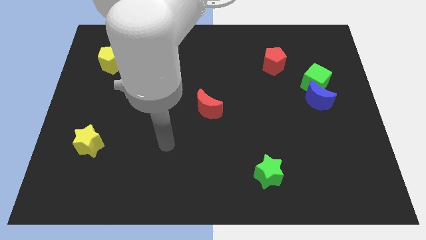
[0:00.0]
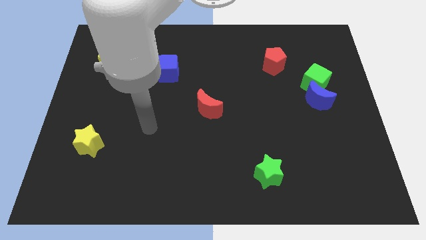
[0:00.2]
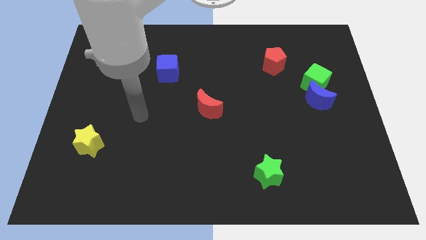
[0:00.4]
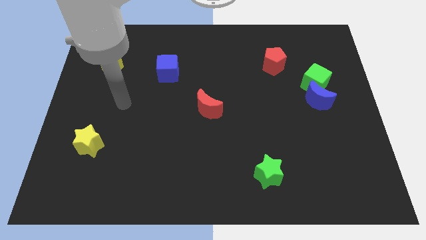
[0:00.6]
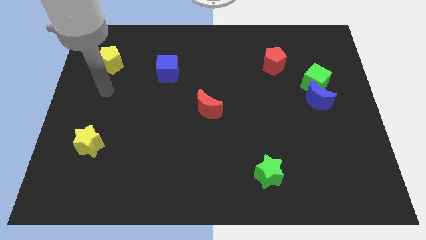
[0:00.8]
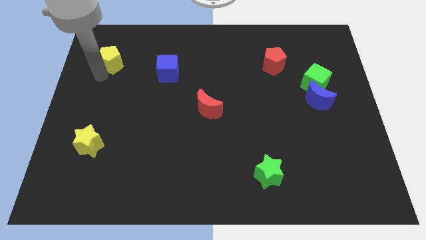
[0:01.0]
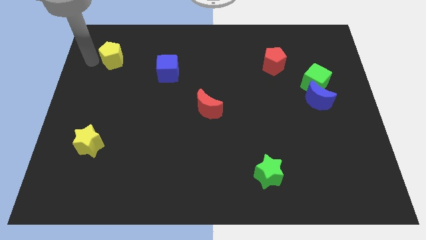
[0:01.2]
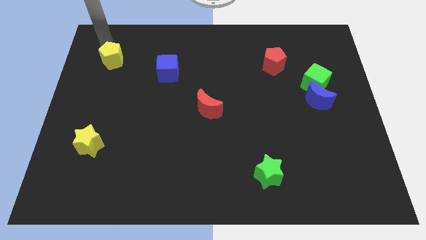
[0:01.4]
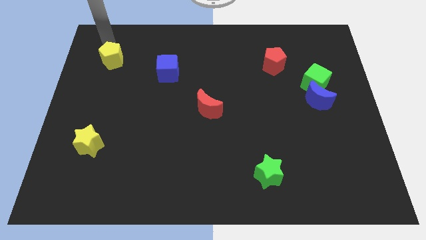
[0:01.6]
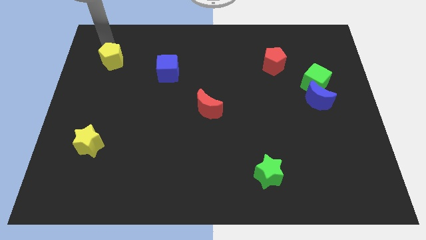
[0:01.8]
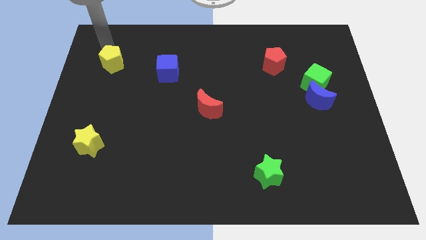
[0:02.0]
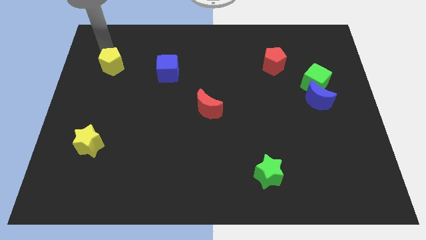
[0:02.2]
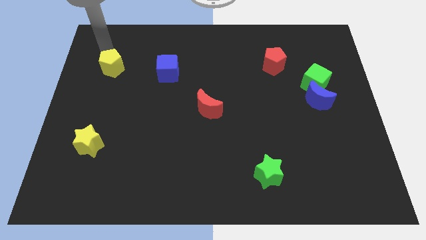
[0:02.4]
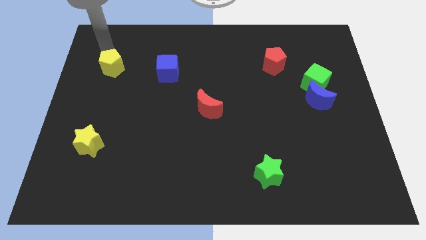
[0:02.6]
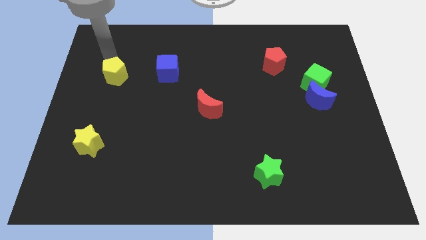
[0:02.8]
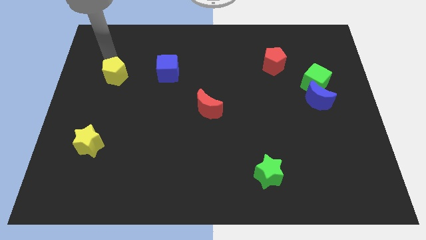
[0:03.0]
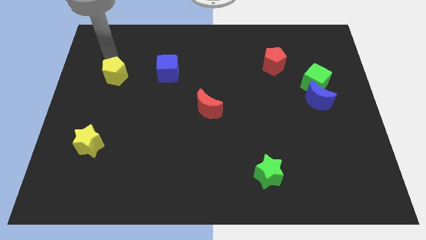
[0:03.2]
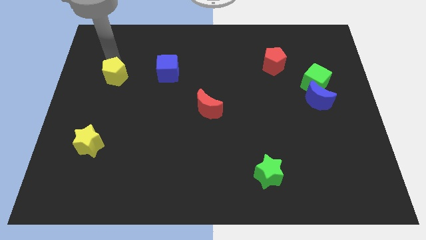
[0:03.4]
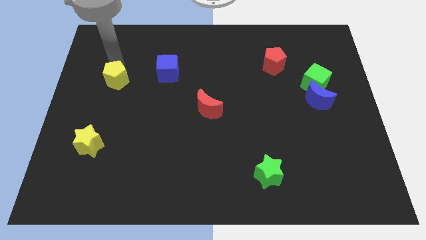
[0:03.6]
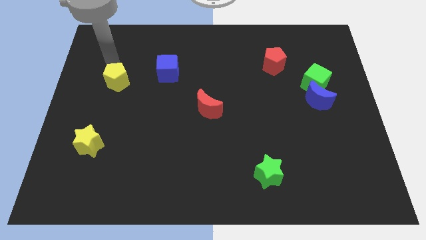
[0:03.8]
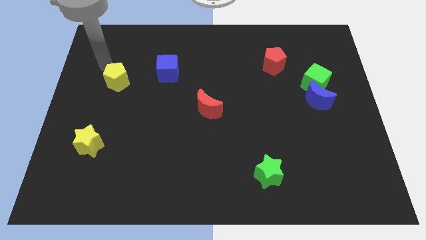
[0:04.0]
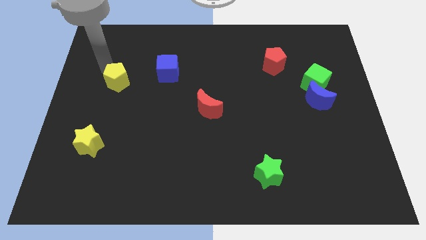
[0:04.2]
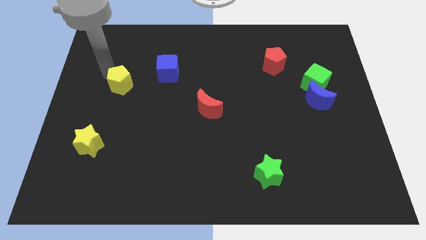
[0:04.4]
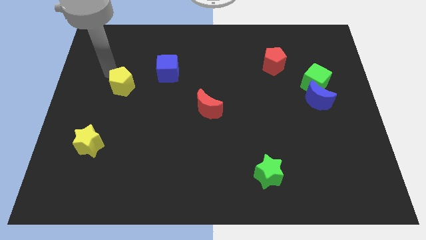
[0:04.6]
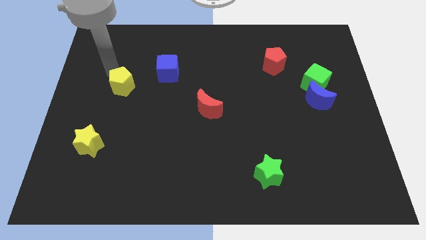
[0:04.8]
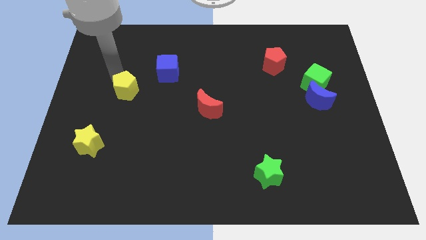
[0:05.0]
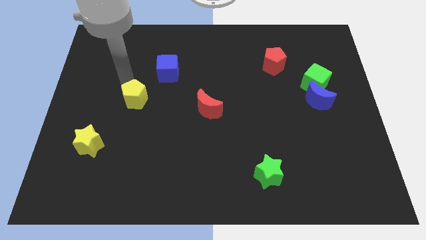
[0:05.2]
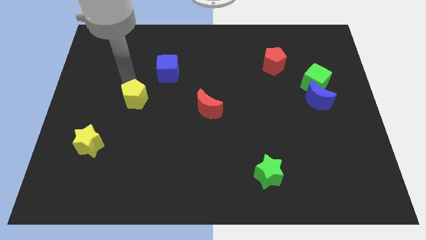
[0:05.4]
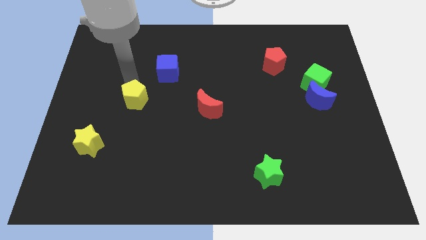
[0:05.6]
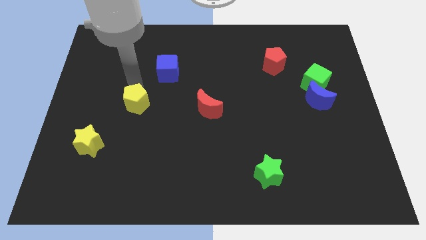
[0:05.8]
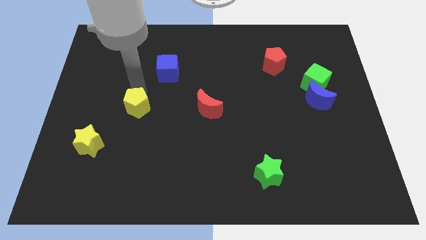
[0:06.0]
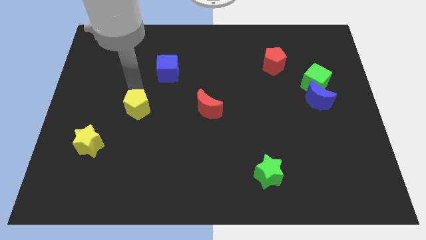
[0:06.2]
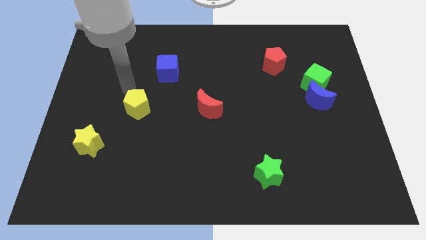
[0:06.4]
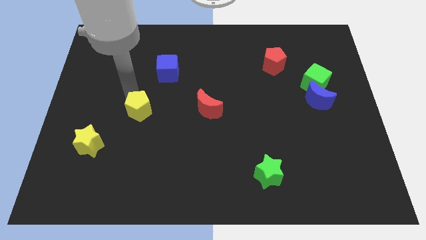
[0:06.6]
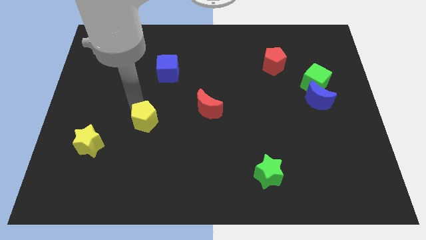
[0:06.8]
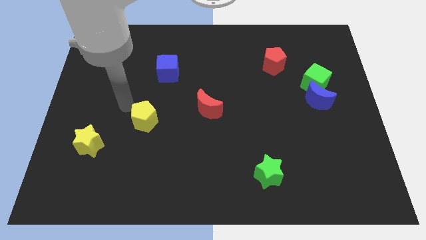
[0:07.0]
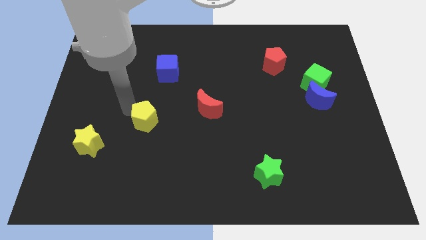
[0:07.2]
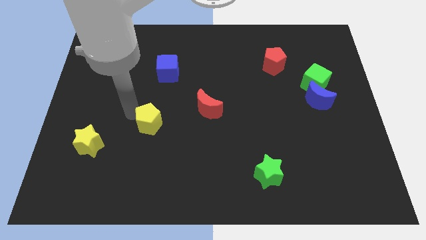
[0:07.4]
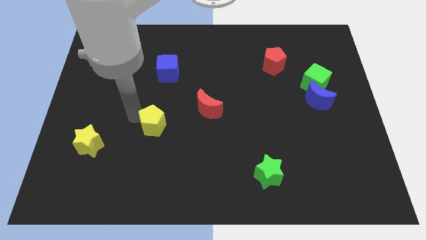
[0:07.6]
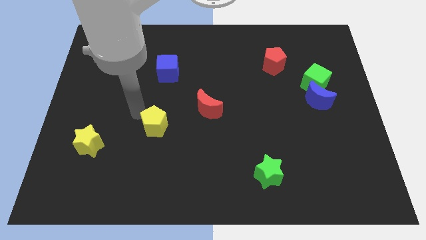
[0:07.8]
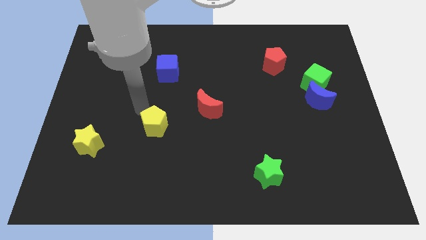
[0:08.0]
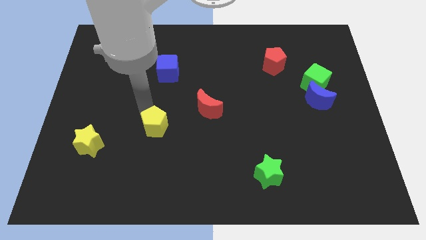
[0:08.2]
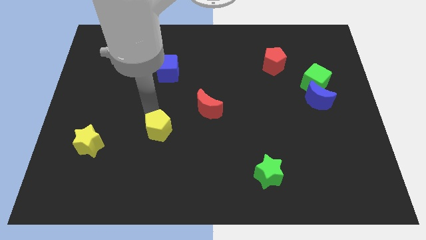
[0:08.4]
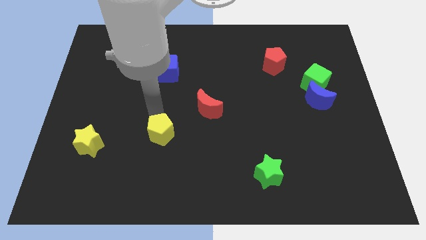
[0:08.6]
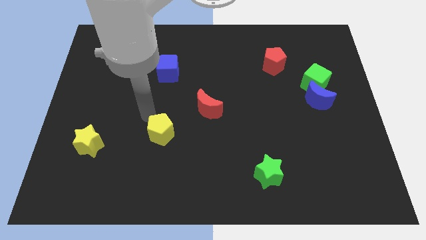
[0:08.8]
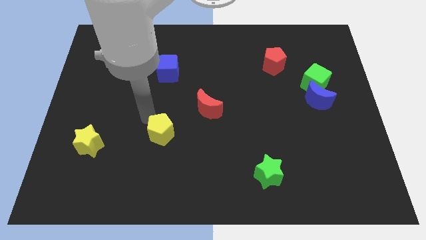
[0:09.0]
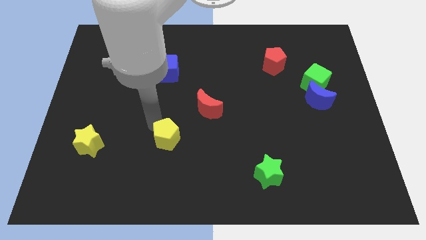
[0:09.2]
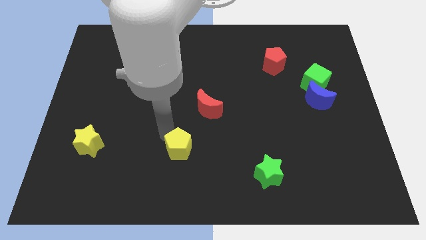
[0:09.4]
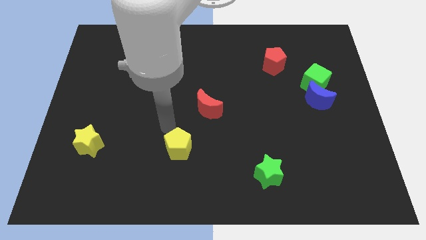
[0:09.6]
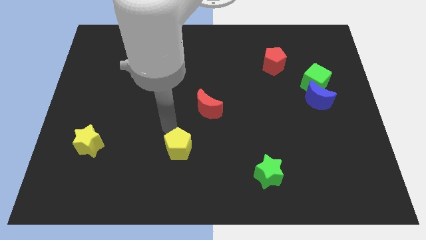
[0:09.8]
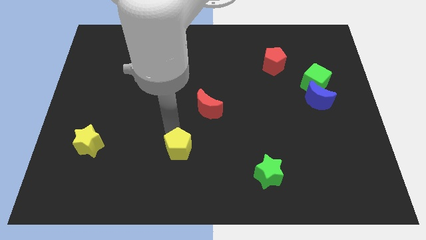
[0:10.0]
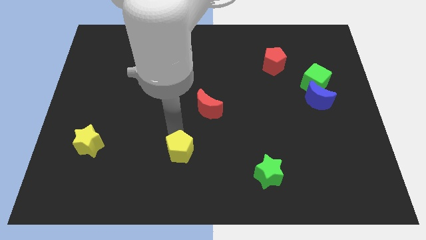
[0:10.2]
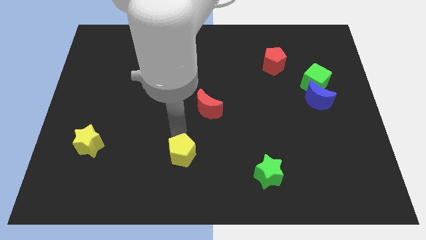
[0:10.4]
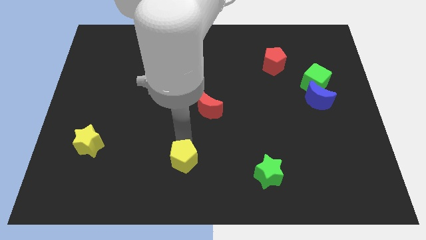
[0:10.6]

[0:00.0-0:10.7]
slide the yellow pentagon to the bottom side

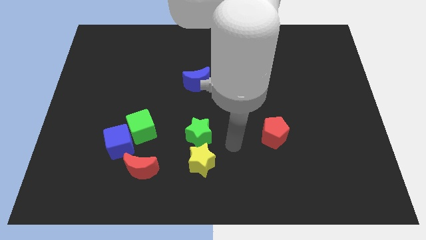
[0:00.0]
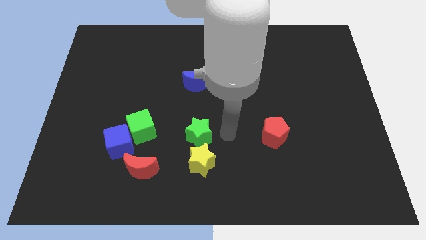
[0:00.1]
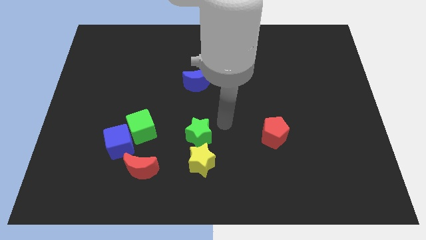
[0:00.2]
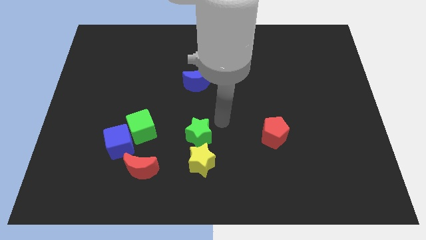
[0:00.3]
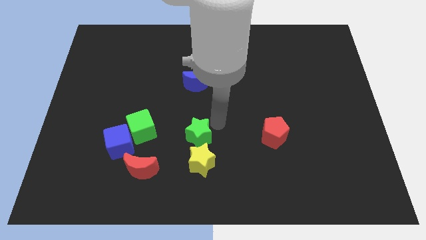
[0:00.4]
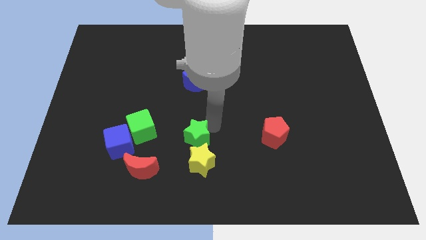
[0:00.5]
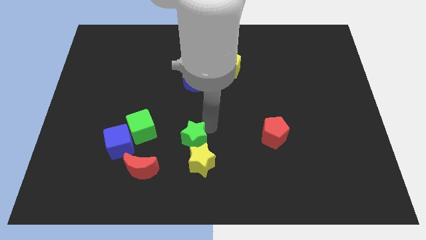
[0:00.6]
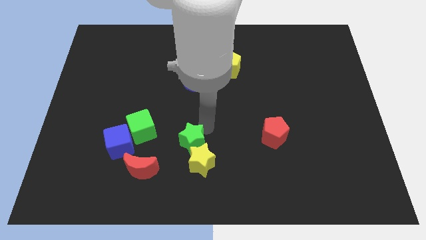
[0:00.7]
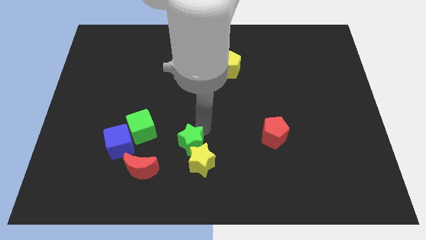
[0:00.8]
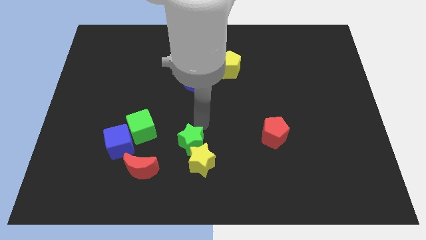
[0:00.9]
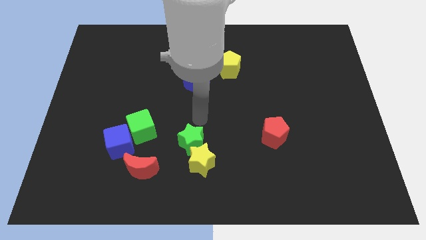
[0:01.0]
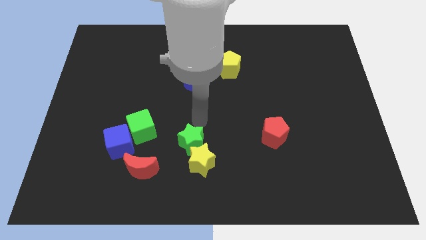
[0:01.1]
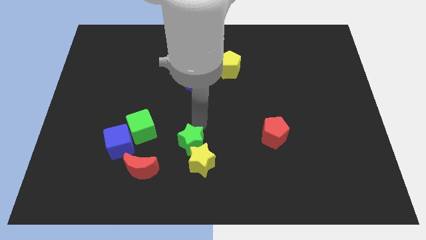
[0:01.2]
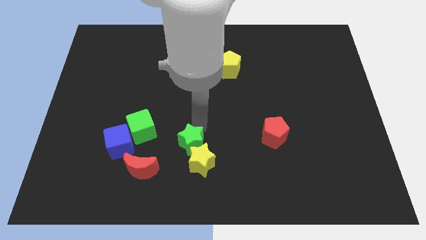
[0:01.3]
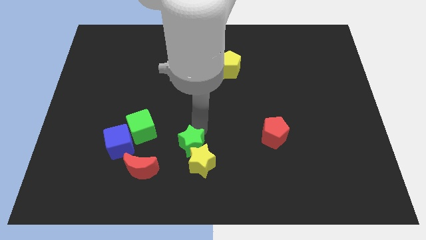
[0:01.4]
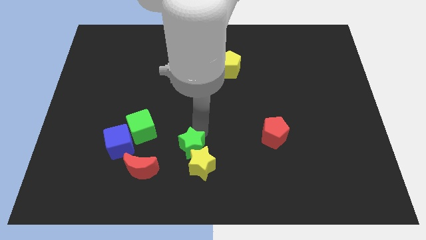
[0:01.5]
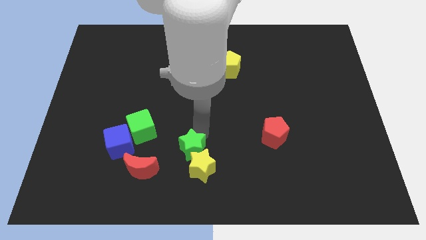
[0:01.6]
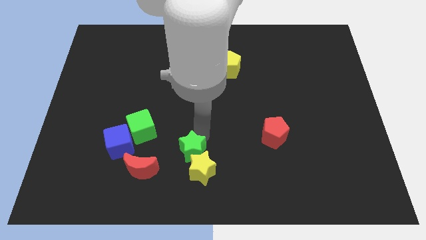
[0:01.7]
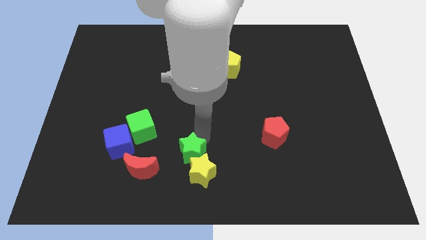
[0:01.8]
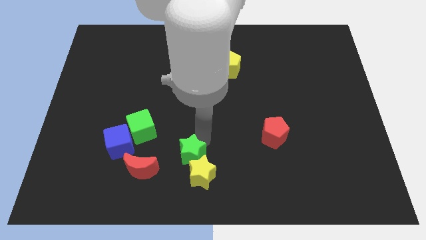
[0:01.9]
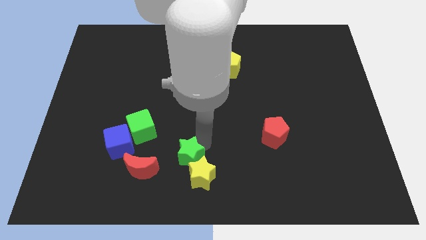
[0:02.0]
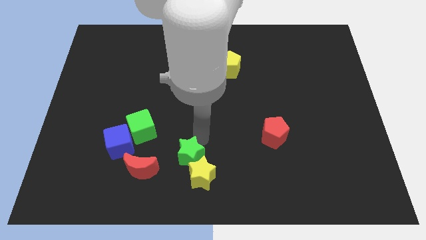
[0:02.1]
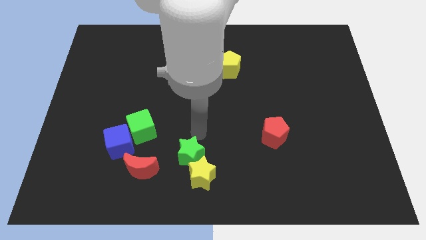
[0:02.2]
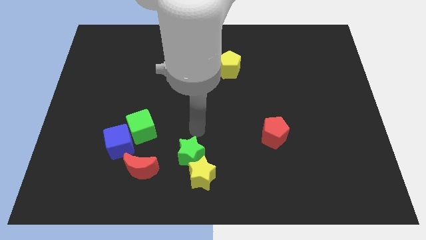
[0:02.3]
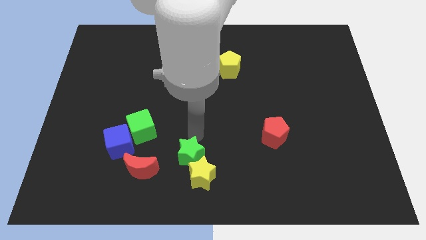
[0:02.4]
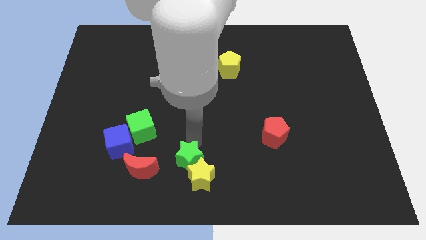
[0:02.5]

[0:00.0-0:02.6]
slide the green star to the bottom
